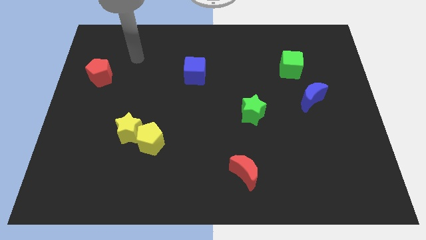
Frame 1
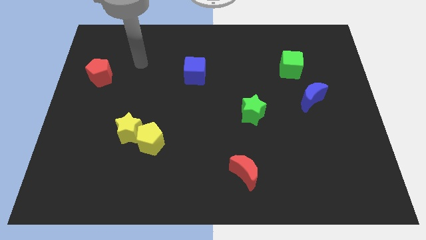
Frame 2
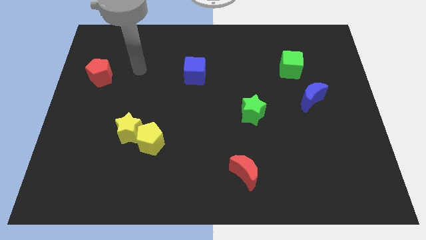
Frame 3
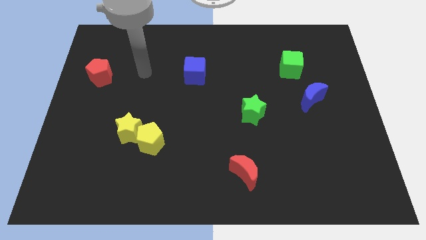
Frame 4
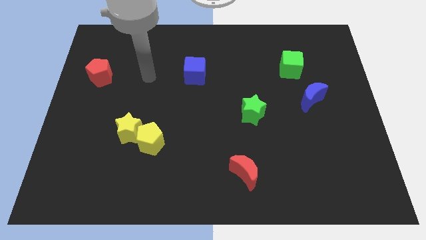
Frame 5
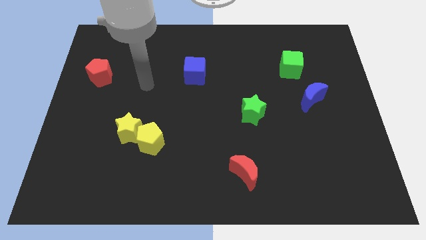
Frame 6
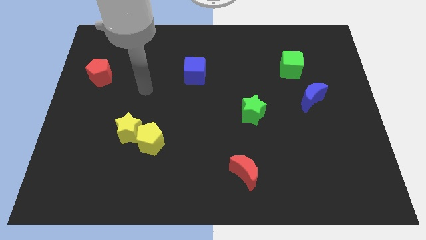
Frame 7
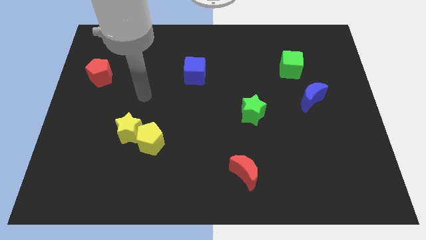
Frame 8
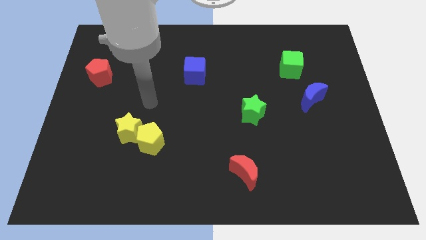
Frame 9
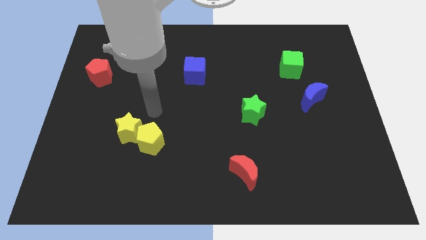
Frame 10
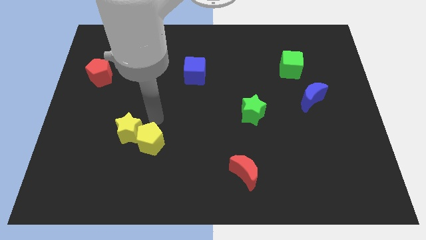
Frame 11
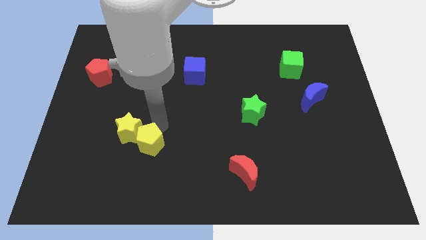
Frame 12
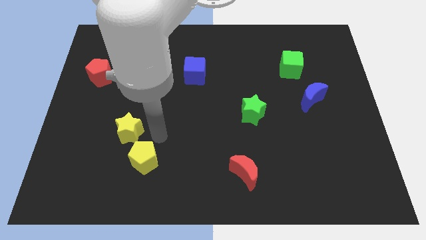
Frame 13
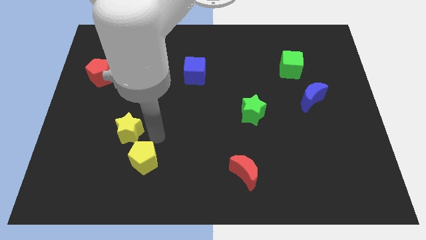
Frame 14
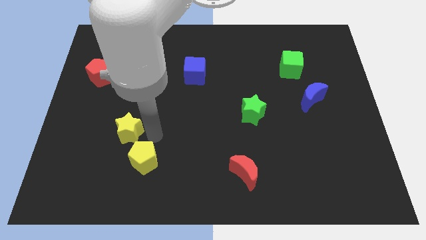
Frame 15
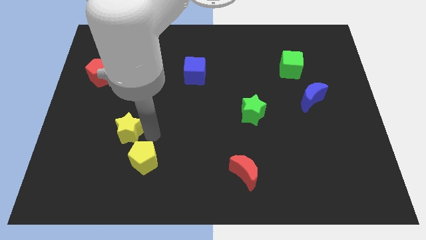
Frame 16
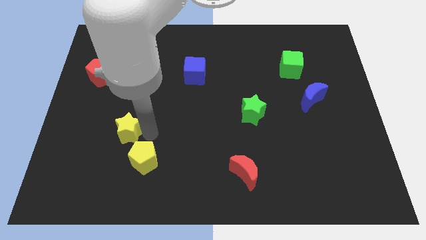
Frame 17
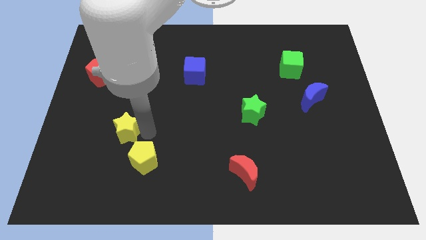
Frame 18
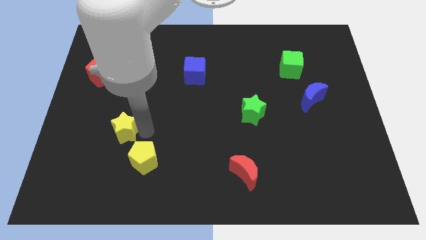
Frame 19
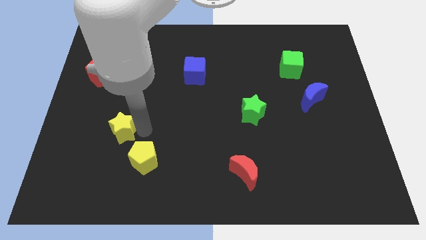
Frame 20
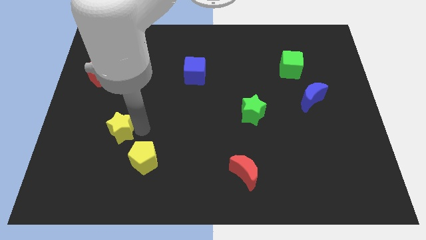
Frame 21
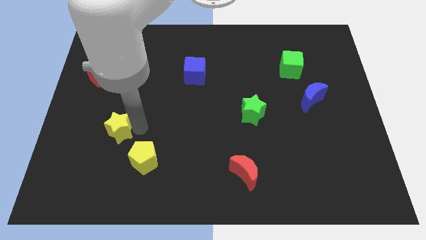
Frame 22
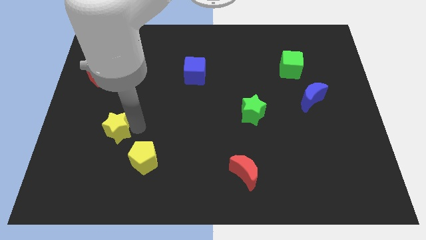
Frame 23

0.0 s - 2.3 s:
move the yellow star away from the yellow pentagon

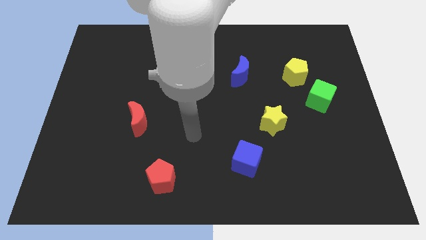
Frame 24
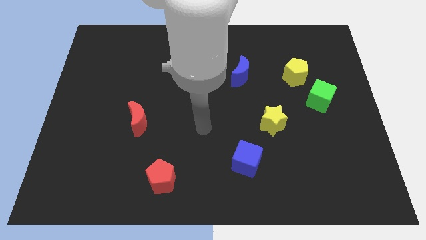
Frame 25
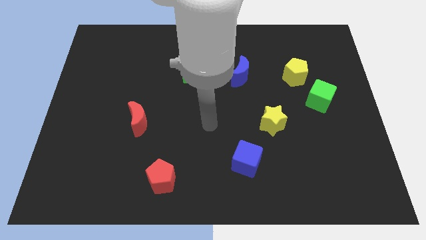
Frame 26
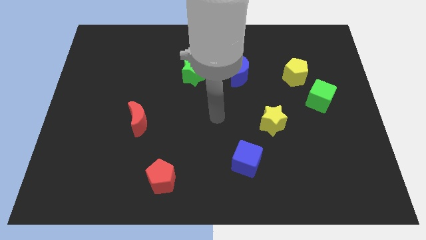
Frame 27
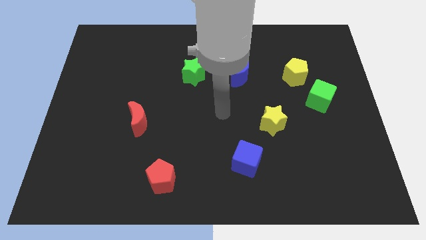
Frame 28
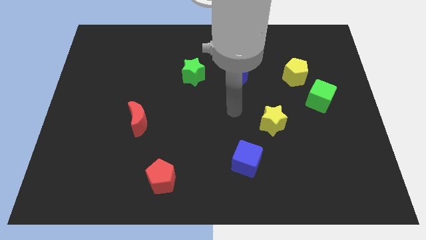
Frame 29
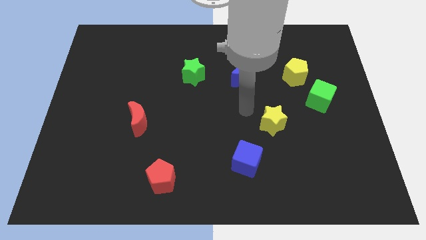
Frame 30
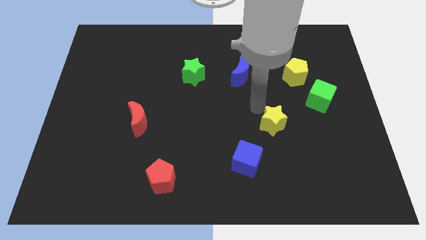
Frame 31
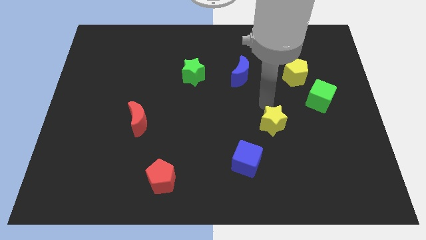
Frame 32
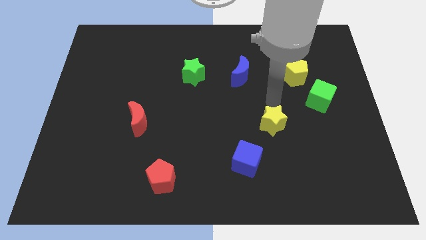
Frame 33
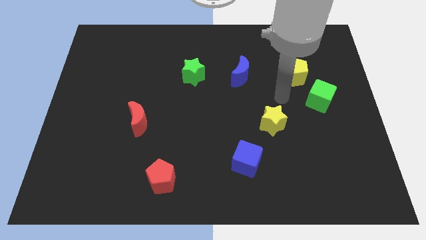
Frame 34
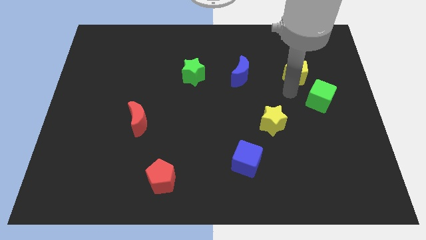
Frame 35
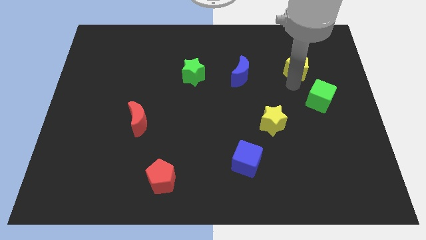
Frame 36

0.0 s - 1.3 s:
move the green cube away from the yellow pentagon

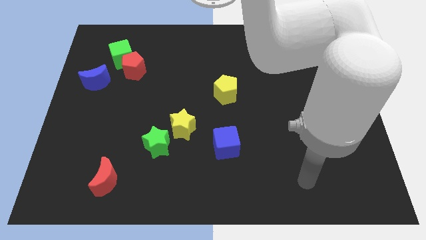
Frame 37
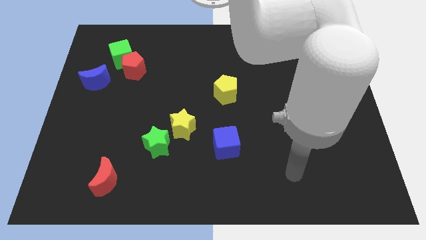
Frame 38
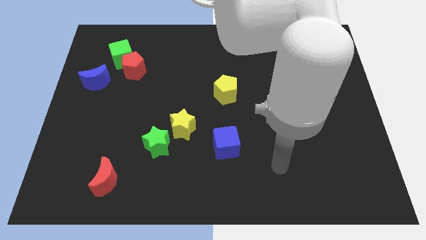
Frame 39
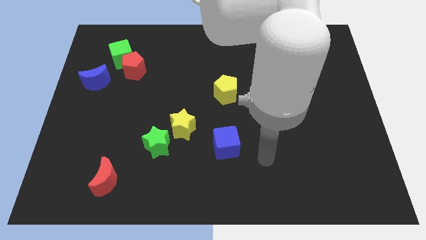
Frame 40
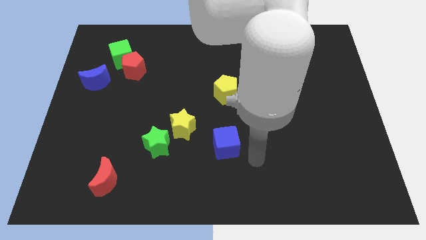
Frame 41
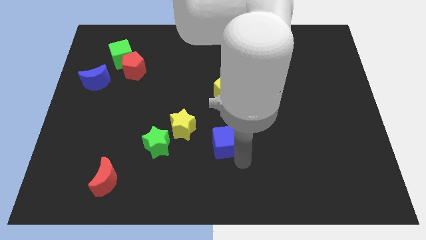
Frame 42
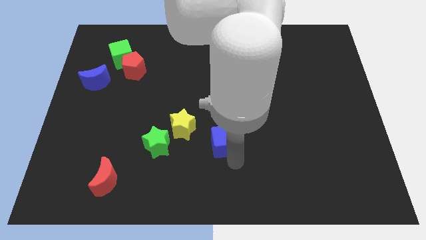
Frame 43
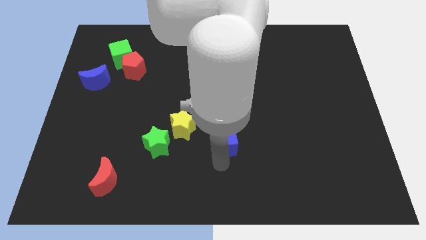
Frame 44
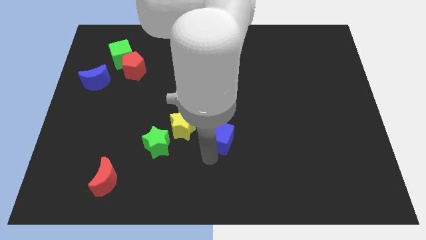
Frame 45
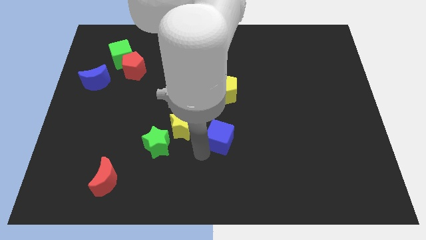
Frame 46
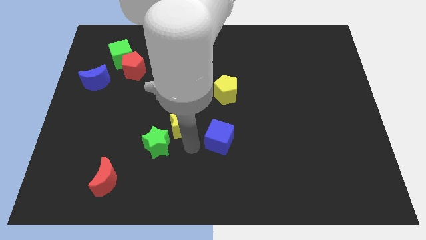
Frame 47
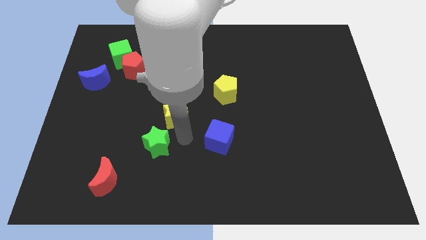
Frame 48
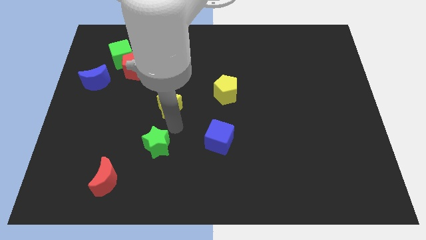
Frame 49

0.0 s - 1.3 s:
separate the green star from the yellow star

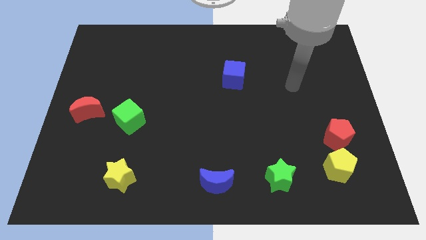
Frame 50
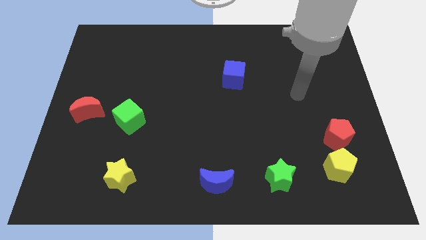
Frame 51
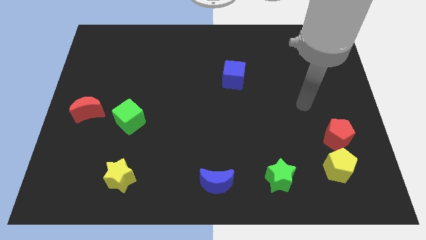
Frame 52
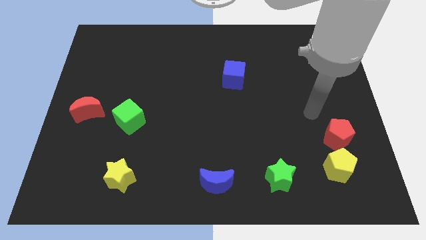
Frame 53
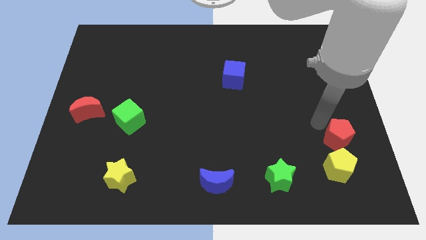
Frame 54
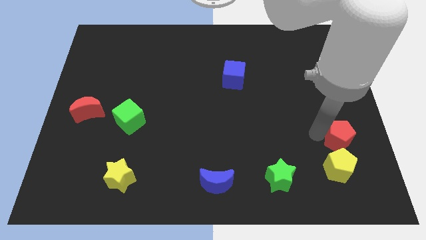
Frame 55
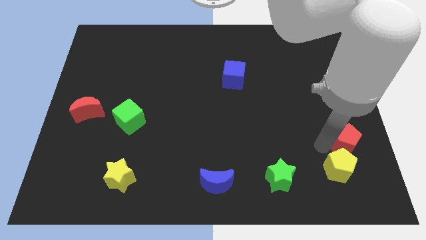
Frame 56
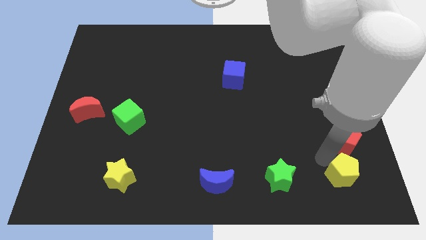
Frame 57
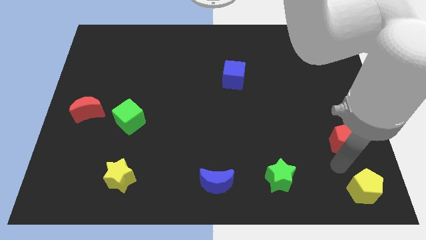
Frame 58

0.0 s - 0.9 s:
move the red pentagon away from the yellow pentagon

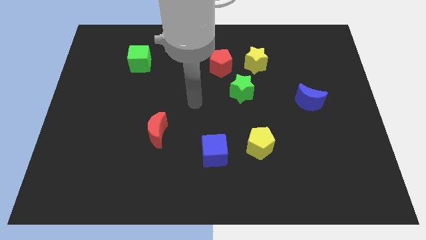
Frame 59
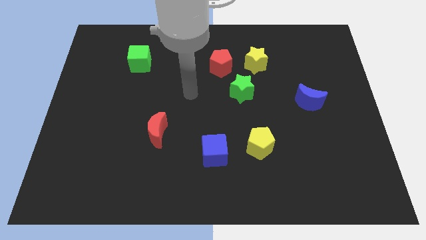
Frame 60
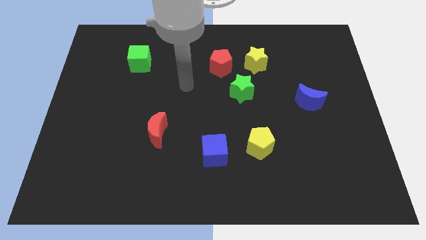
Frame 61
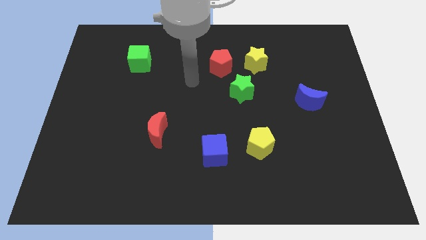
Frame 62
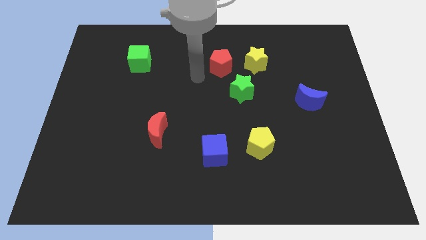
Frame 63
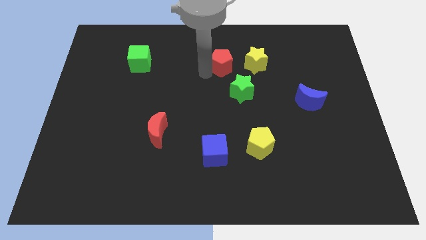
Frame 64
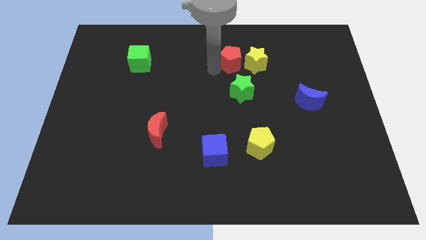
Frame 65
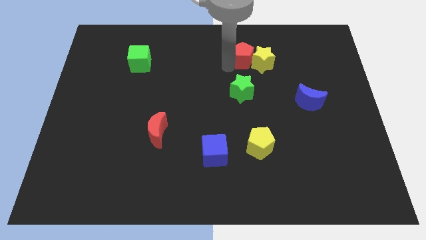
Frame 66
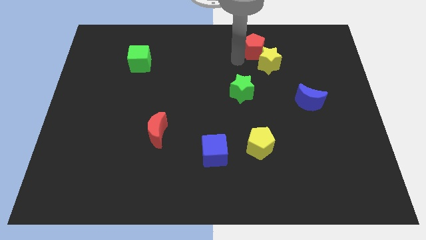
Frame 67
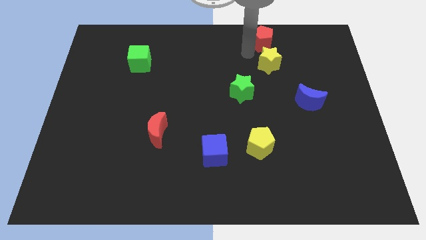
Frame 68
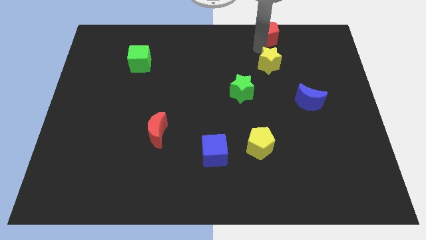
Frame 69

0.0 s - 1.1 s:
move the yellow star away from the red pentagon

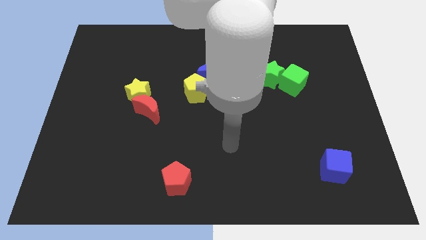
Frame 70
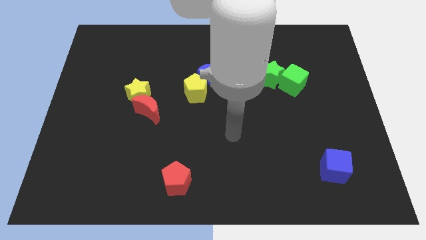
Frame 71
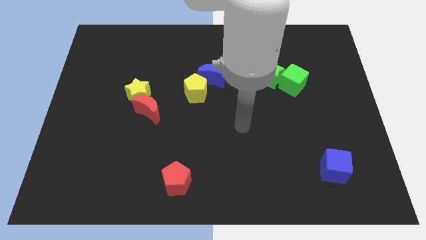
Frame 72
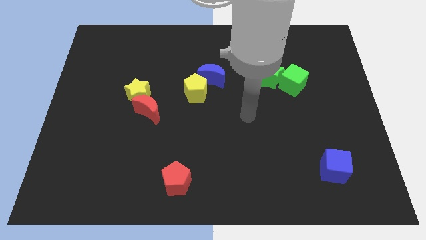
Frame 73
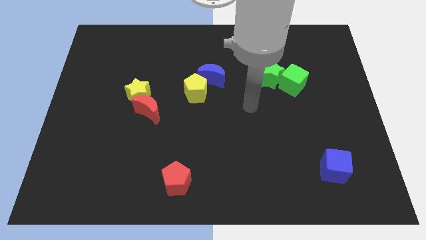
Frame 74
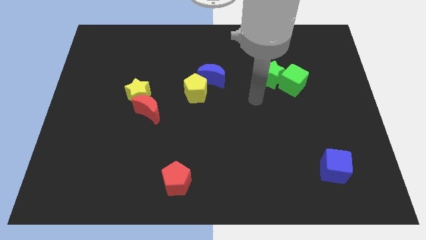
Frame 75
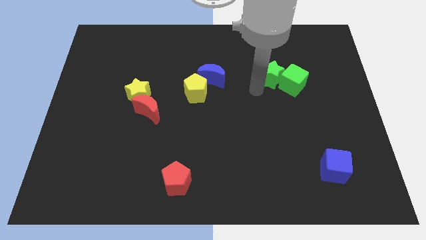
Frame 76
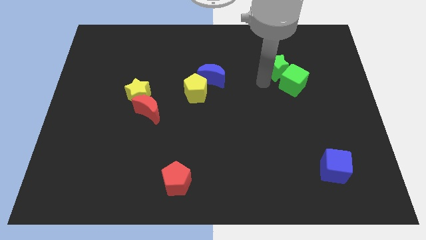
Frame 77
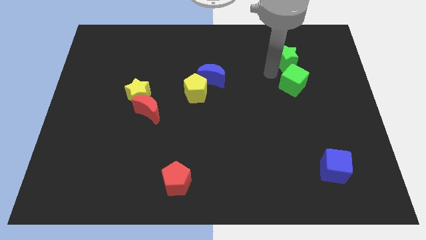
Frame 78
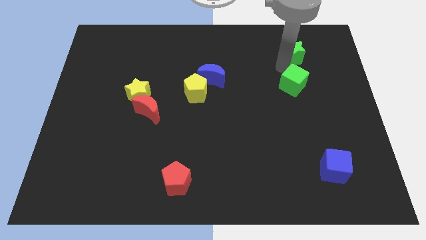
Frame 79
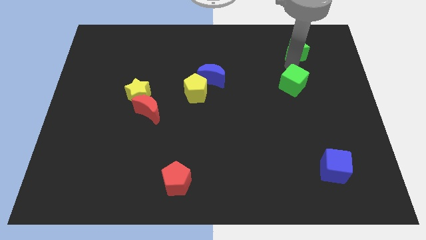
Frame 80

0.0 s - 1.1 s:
pull the green cube apart from the green star

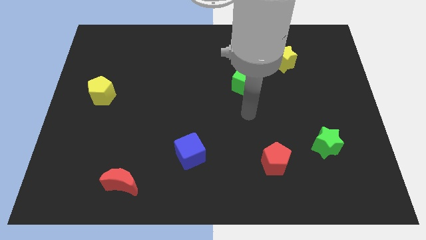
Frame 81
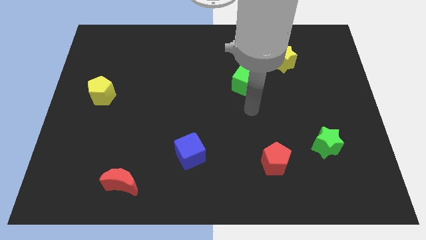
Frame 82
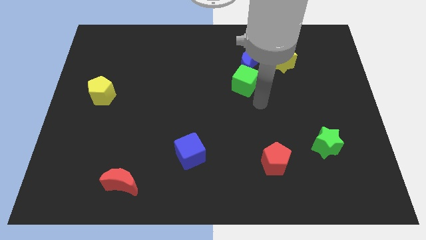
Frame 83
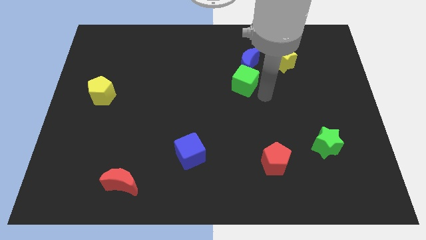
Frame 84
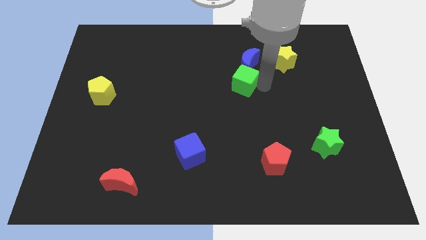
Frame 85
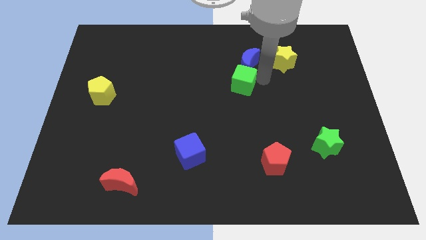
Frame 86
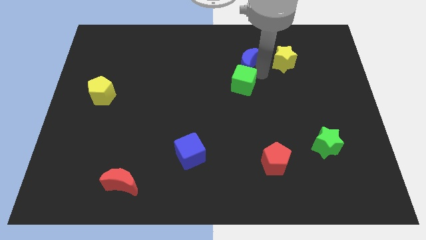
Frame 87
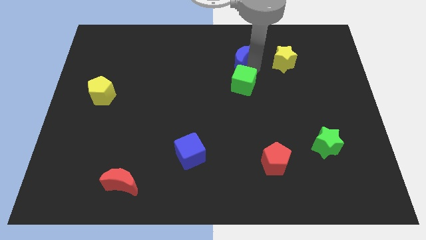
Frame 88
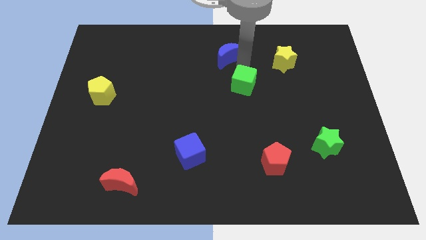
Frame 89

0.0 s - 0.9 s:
separate the green cube from the blue moon

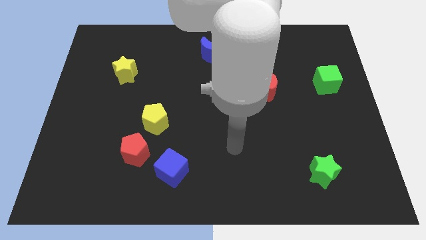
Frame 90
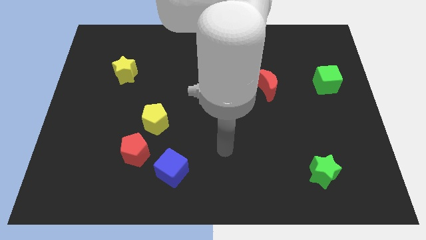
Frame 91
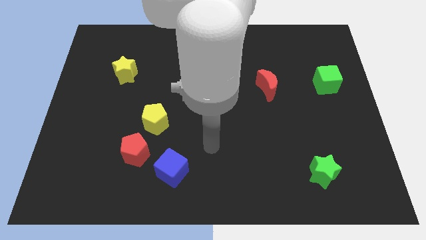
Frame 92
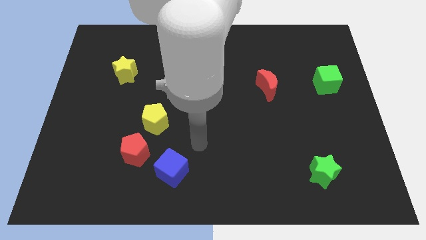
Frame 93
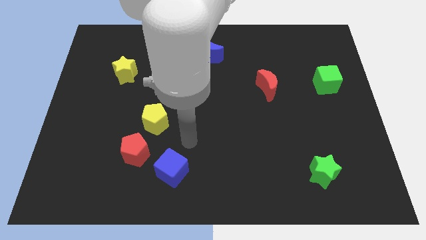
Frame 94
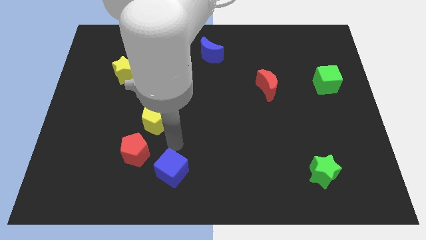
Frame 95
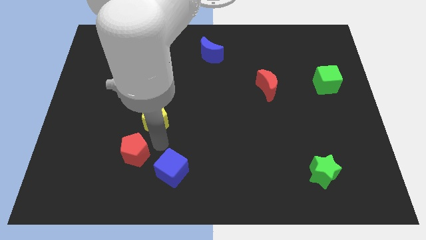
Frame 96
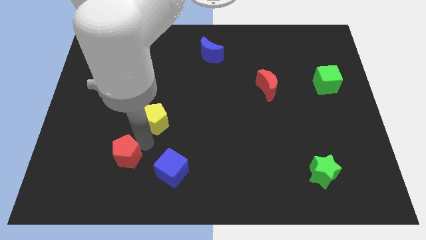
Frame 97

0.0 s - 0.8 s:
pull the yellow pentagon apart from the red pentagon
